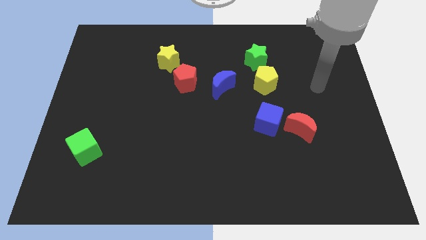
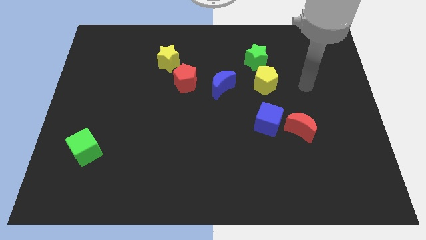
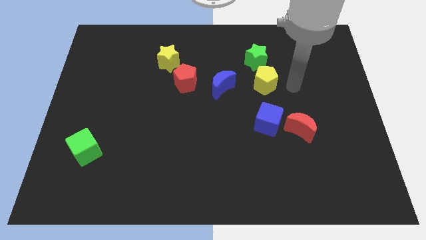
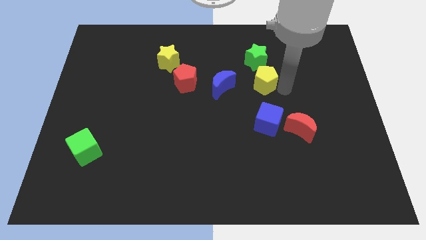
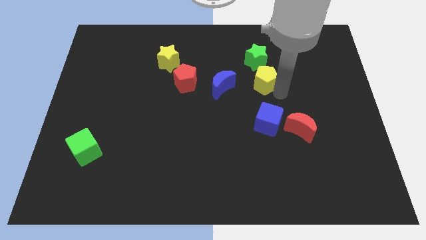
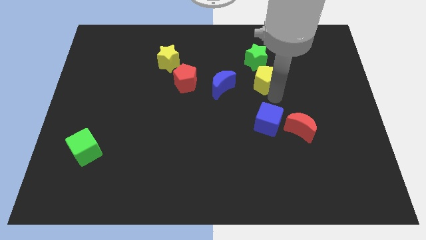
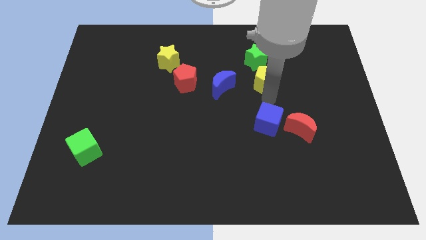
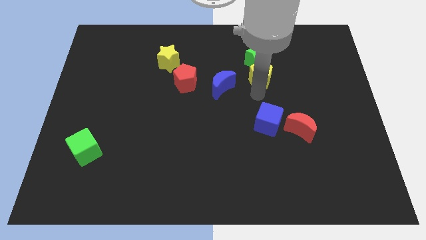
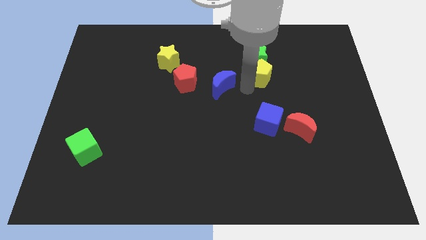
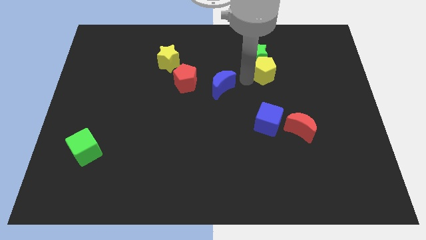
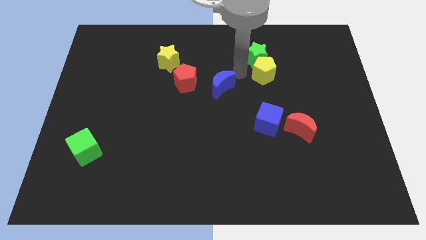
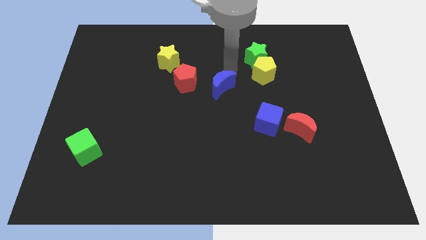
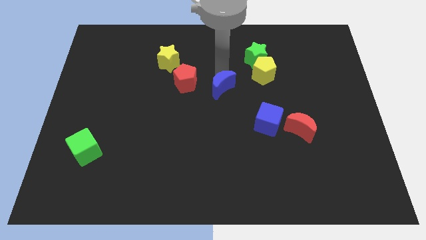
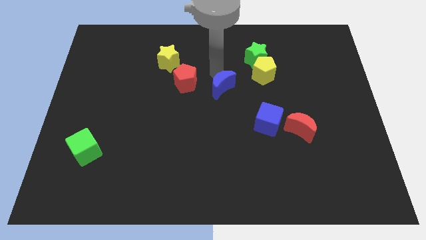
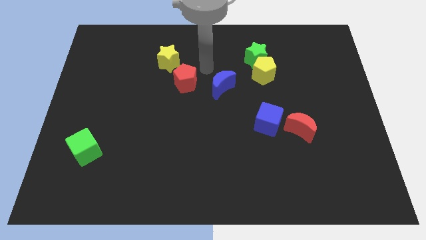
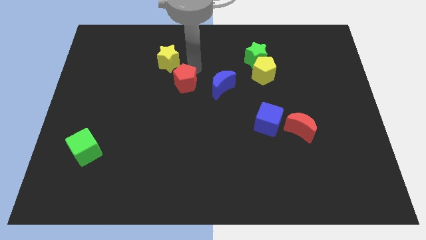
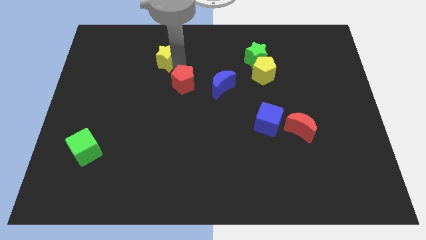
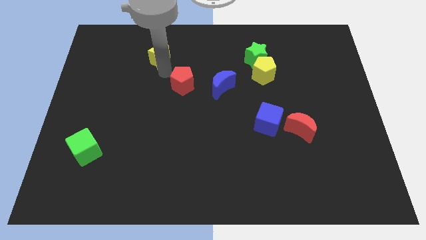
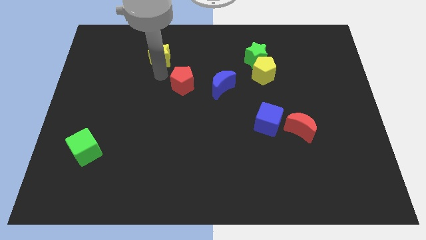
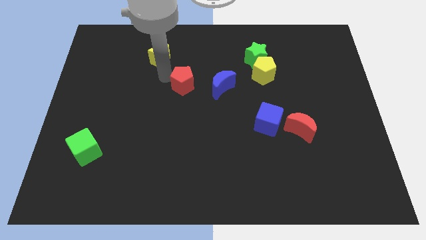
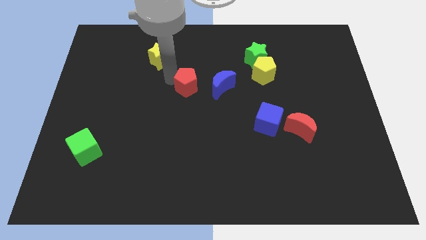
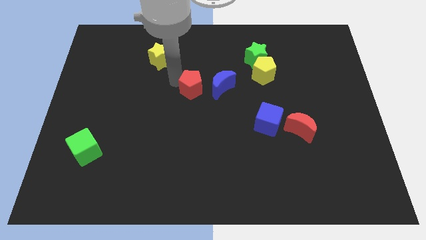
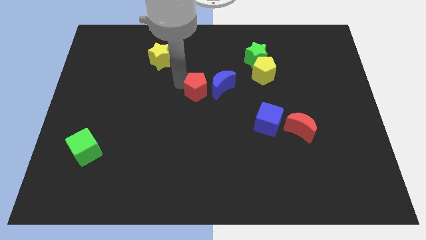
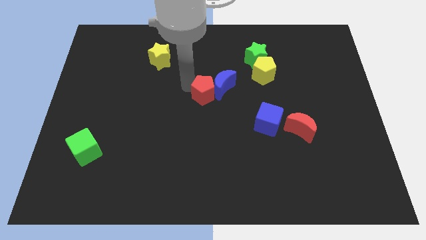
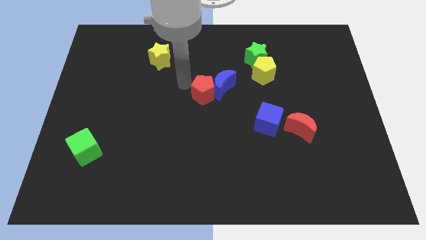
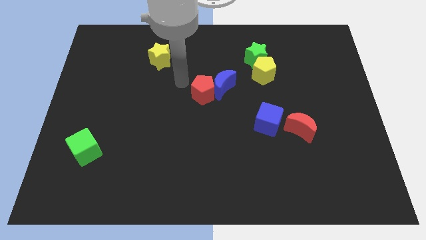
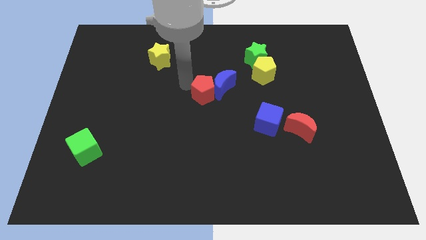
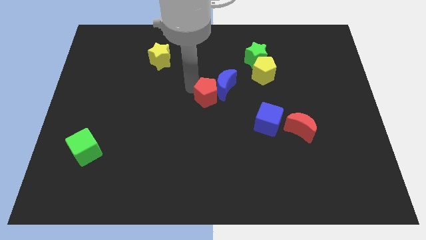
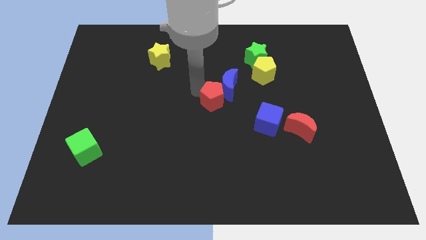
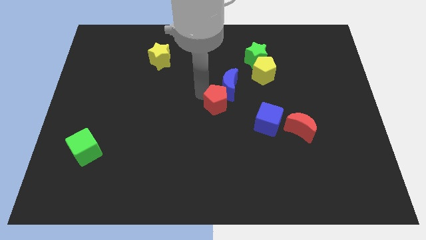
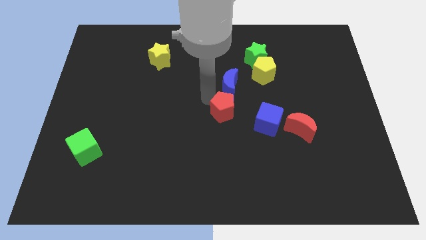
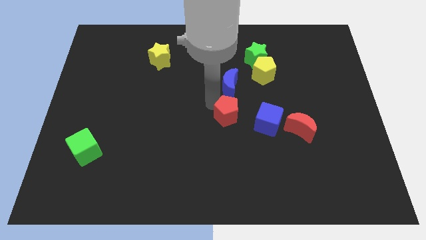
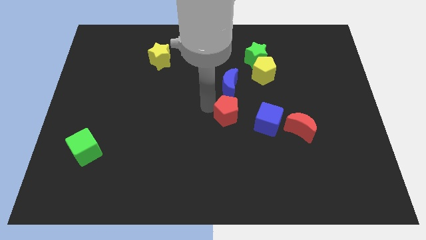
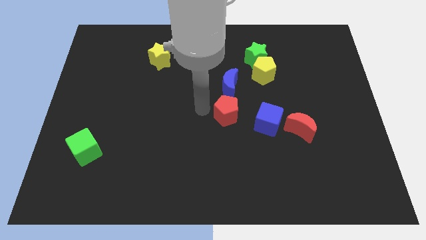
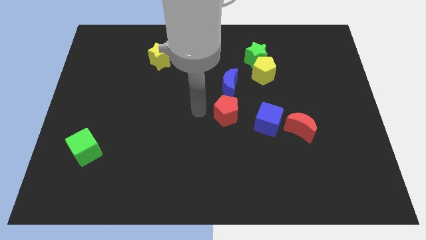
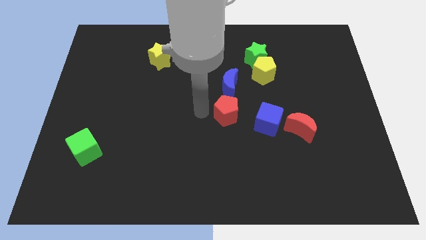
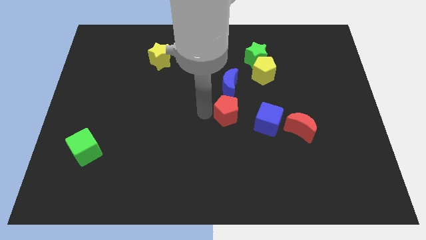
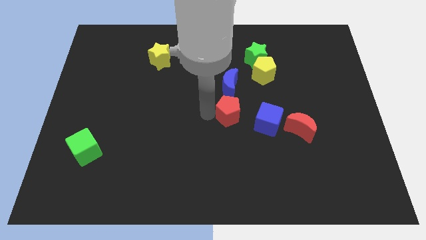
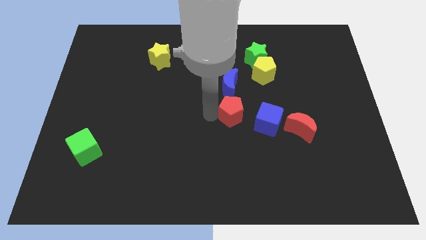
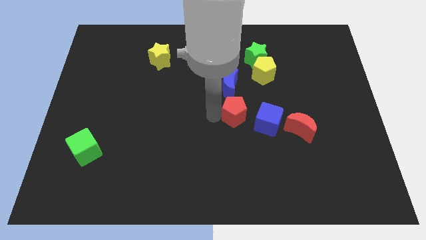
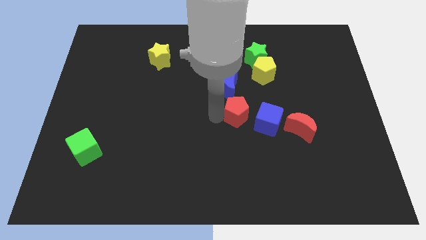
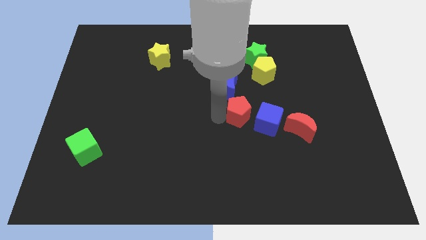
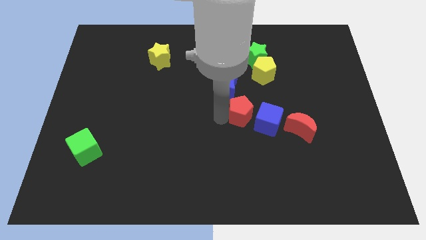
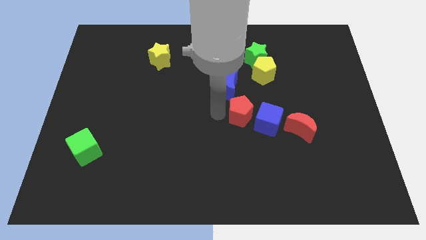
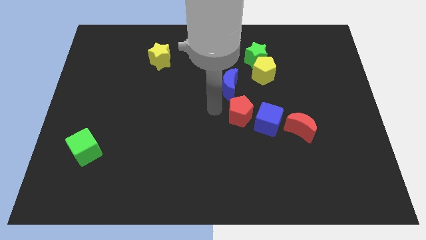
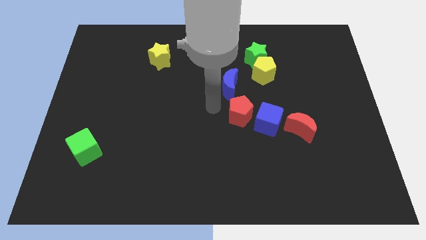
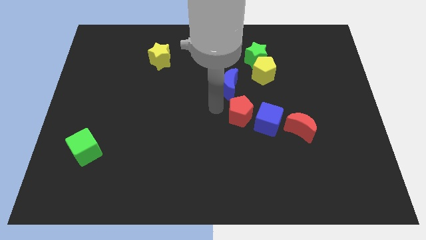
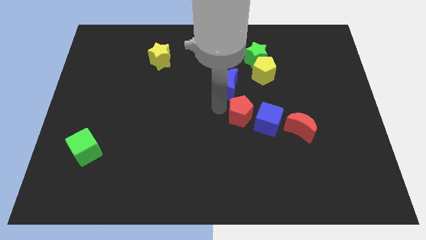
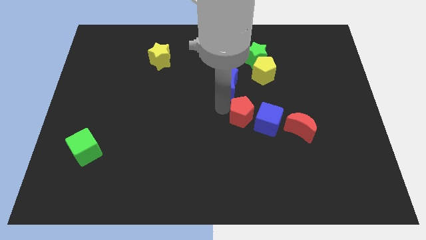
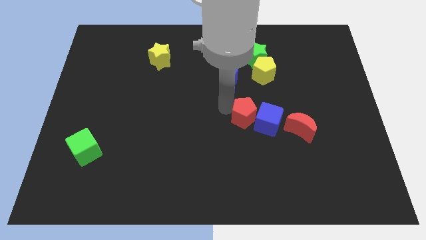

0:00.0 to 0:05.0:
slide the red pentagon close to the blue cube
